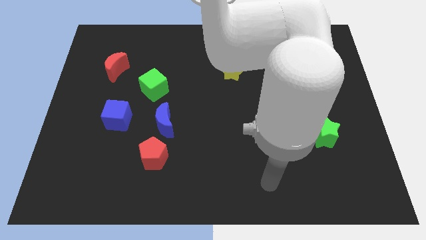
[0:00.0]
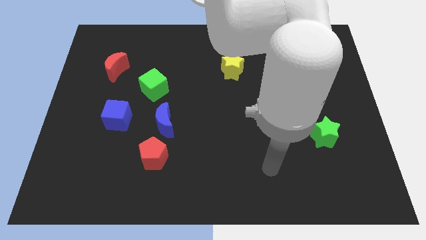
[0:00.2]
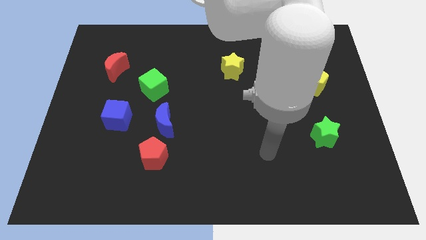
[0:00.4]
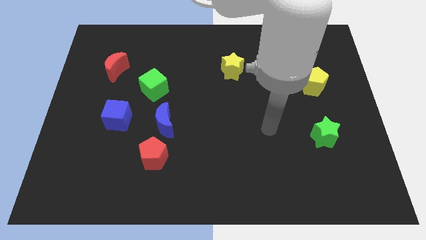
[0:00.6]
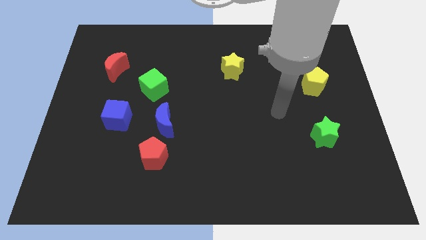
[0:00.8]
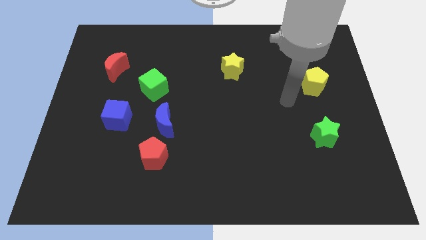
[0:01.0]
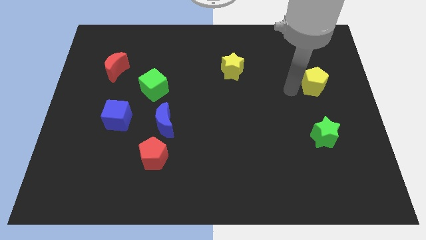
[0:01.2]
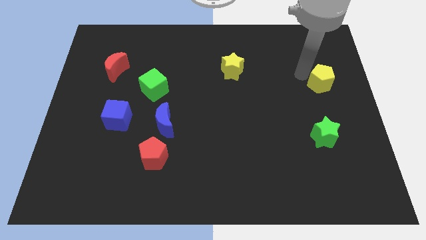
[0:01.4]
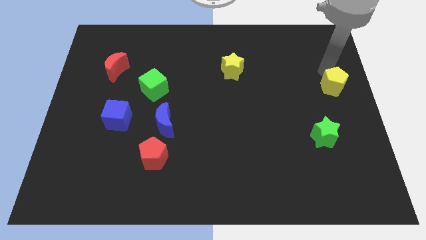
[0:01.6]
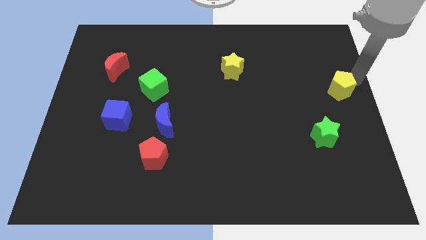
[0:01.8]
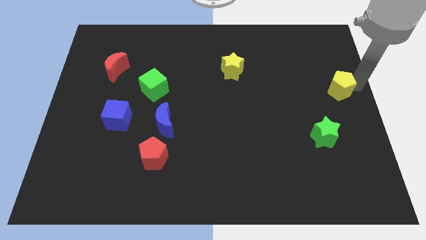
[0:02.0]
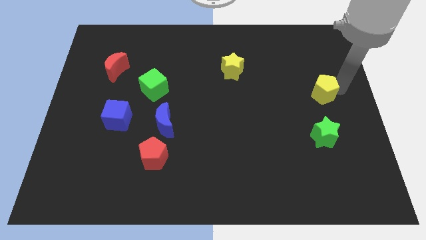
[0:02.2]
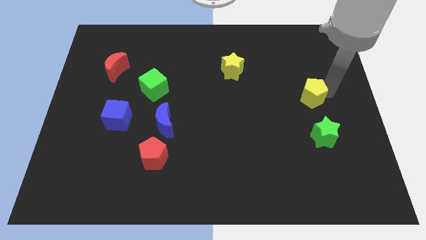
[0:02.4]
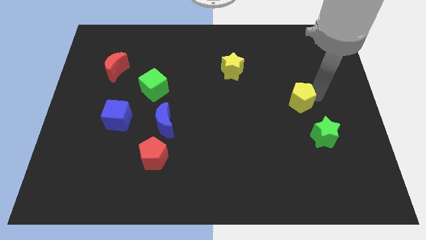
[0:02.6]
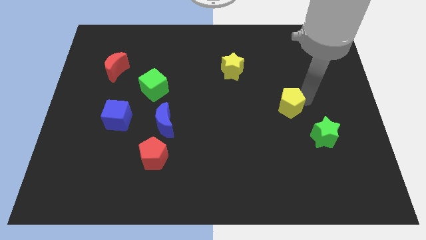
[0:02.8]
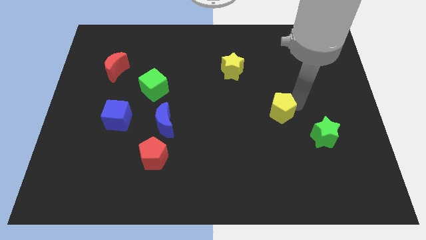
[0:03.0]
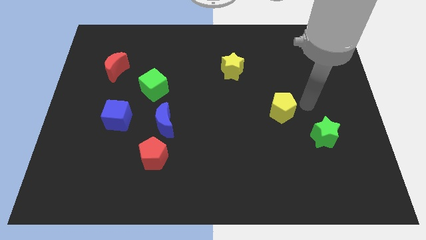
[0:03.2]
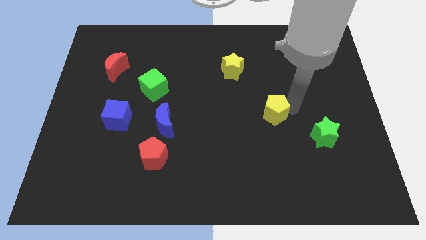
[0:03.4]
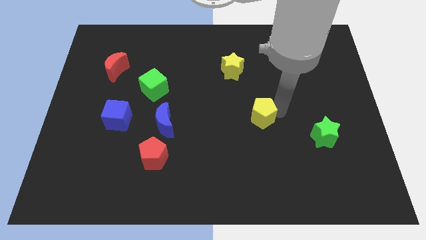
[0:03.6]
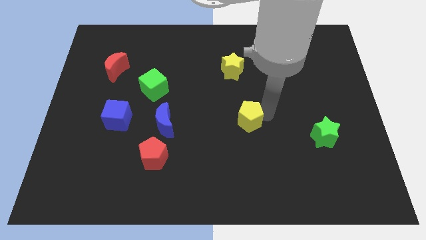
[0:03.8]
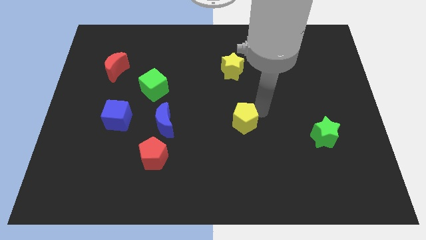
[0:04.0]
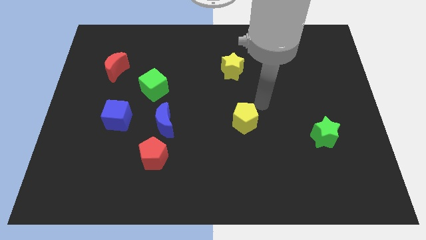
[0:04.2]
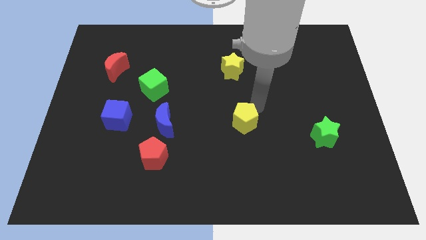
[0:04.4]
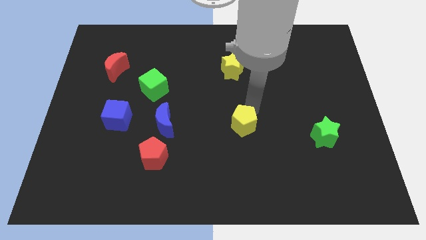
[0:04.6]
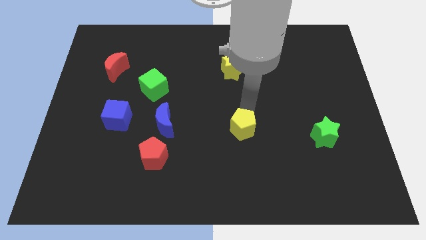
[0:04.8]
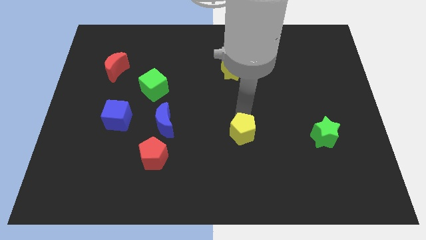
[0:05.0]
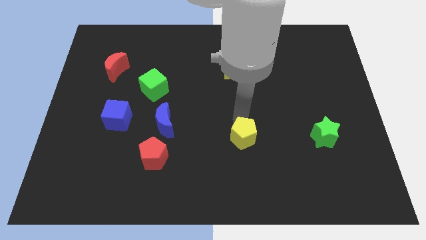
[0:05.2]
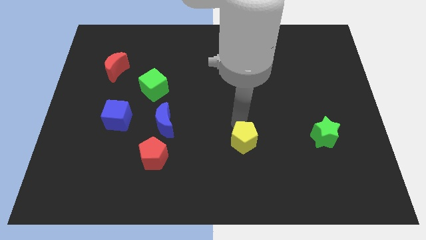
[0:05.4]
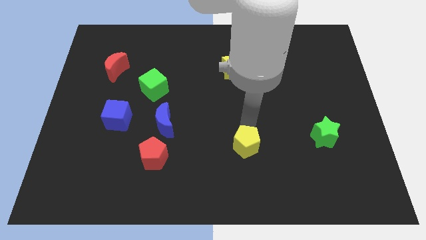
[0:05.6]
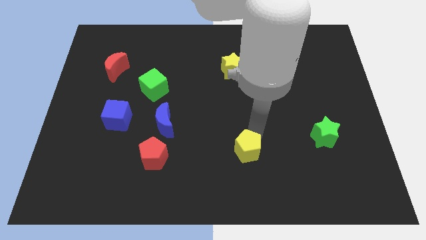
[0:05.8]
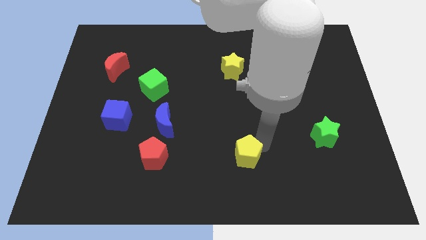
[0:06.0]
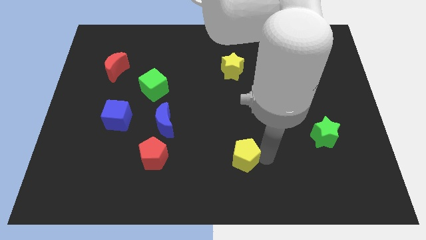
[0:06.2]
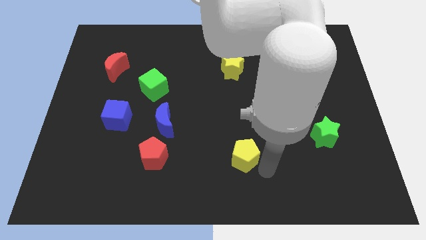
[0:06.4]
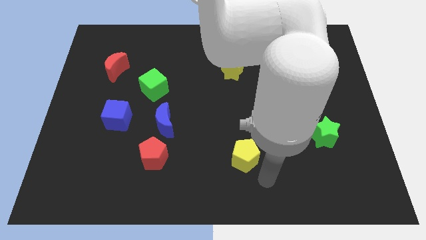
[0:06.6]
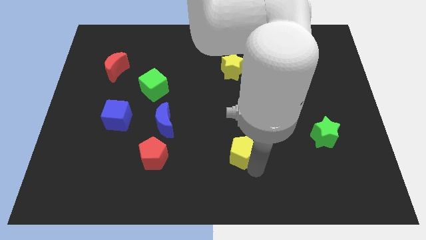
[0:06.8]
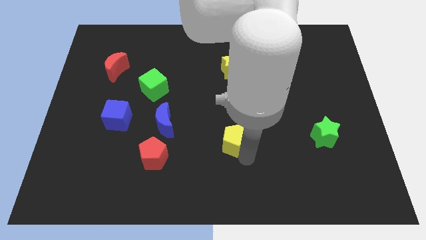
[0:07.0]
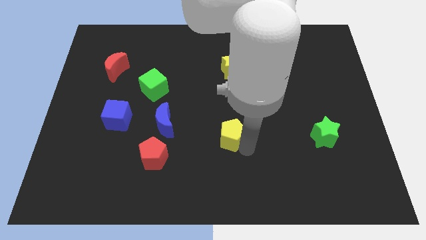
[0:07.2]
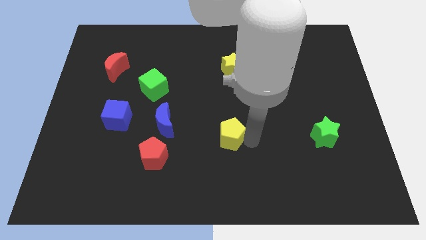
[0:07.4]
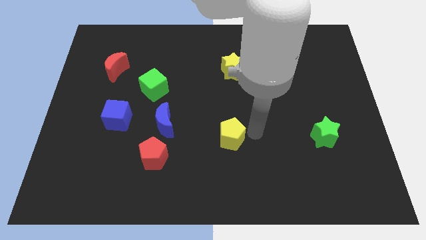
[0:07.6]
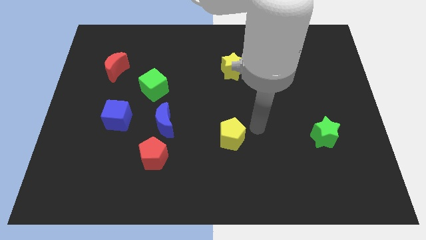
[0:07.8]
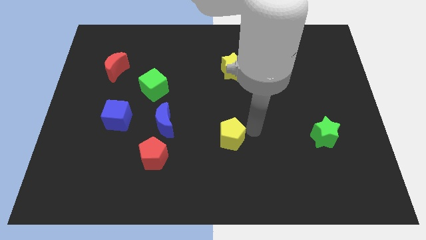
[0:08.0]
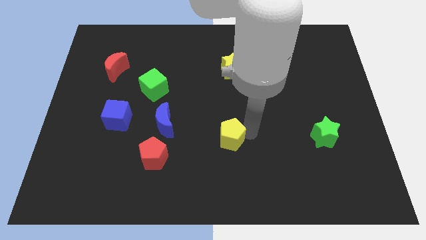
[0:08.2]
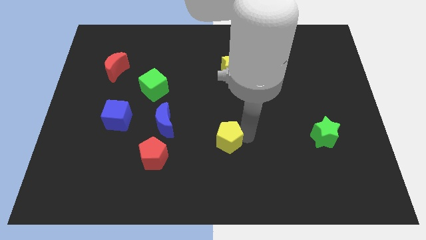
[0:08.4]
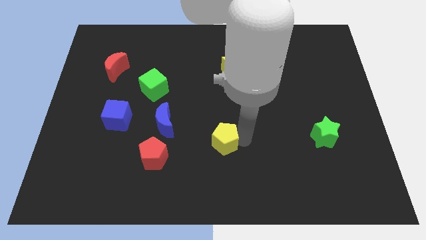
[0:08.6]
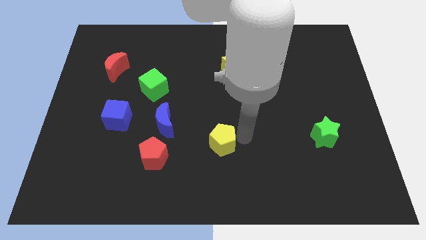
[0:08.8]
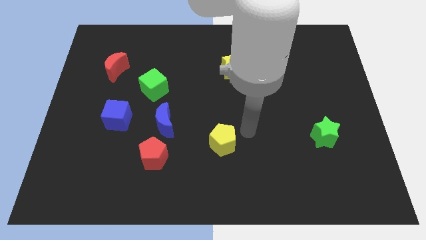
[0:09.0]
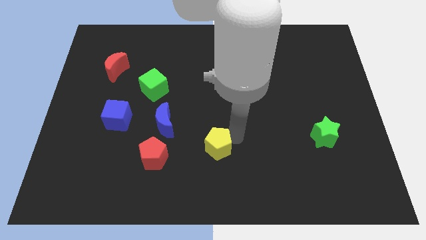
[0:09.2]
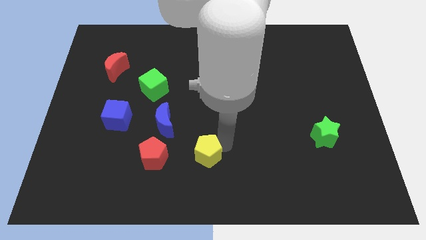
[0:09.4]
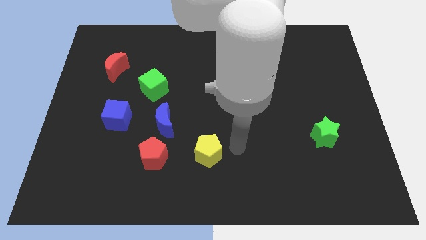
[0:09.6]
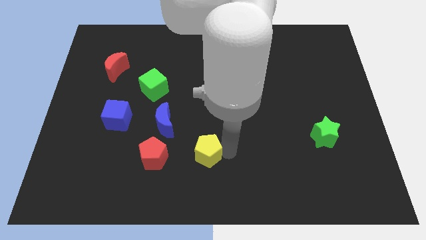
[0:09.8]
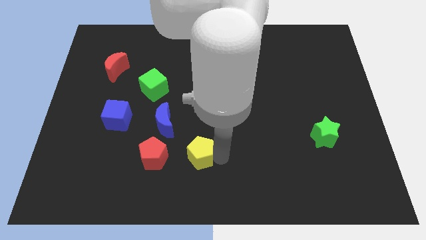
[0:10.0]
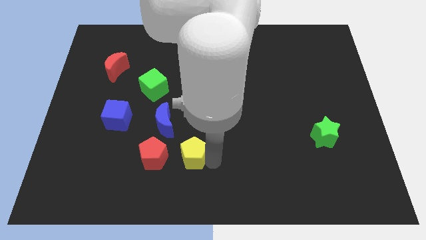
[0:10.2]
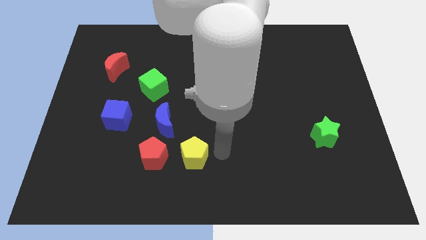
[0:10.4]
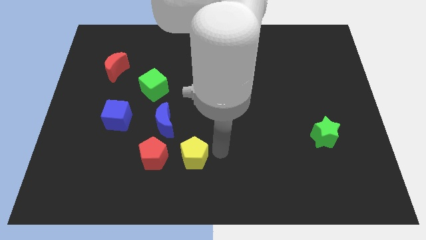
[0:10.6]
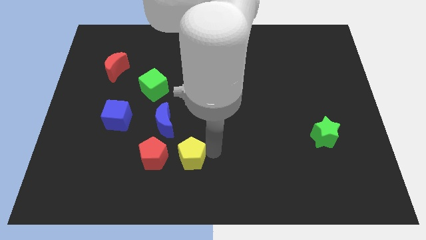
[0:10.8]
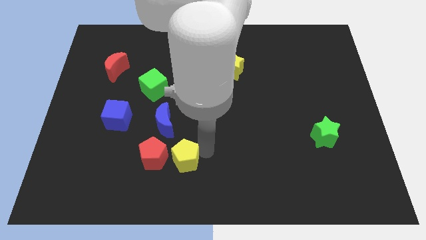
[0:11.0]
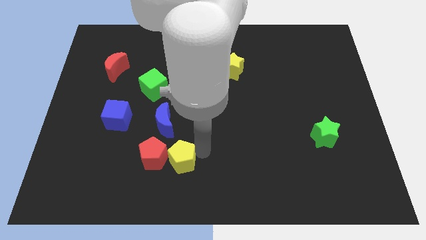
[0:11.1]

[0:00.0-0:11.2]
push the yellow pentagon to the bottom side of the blue moon

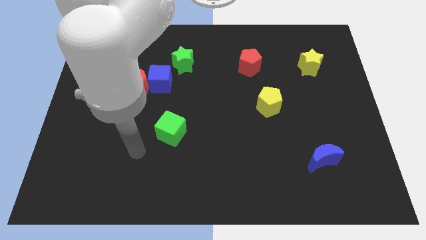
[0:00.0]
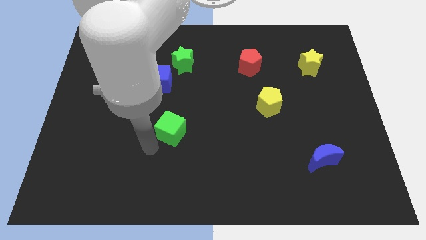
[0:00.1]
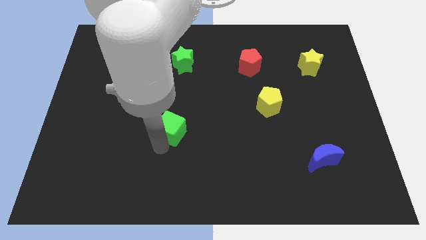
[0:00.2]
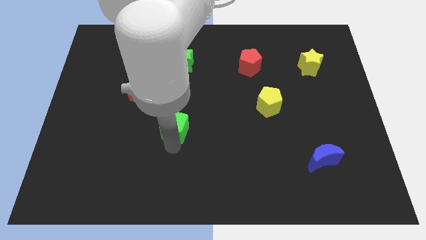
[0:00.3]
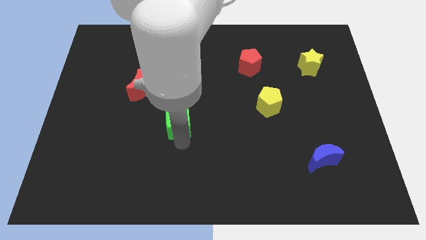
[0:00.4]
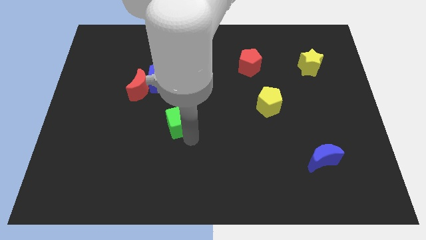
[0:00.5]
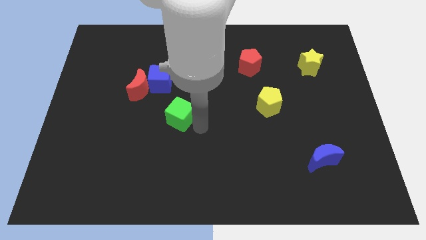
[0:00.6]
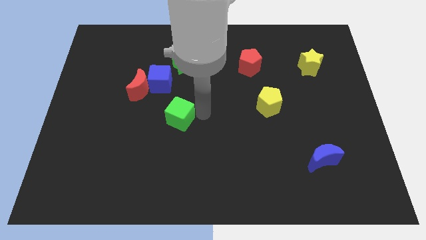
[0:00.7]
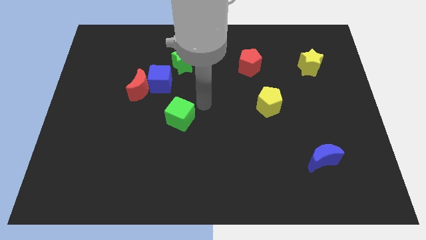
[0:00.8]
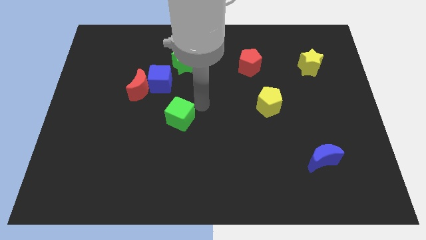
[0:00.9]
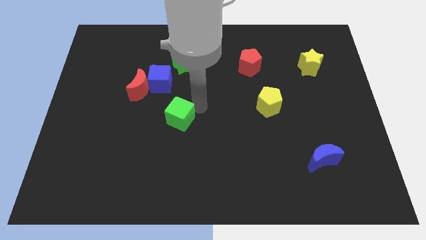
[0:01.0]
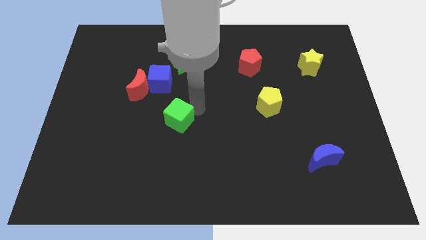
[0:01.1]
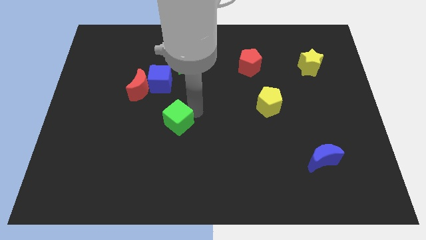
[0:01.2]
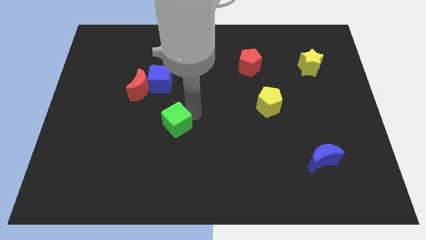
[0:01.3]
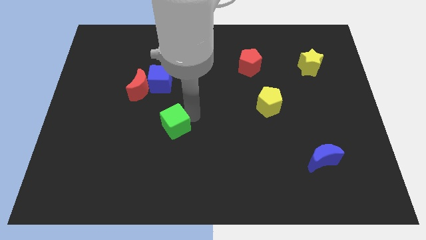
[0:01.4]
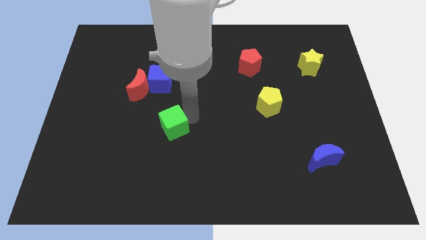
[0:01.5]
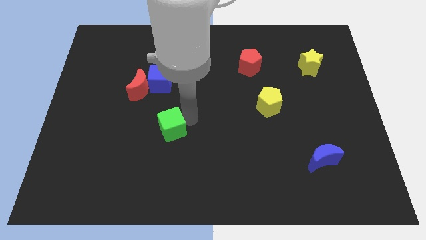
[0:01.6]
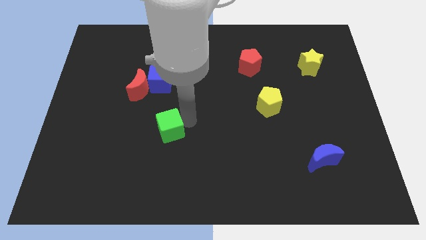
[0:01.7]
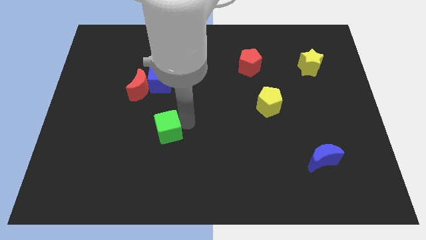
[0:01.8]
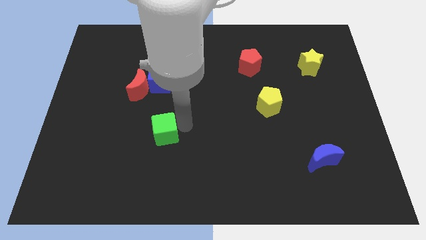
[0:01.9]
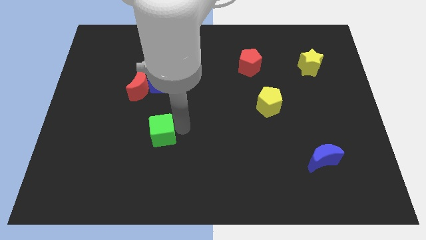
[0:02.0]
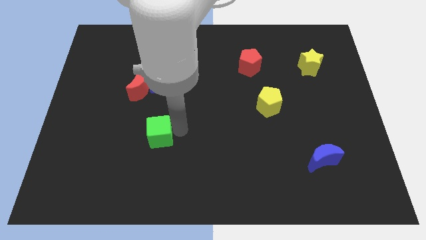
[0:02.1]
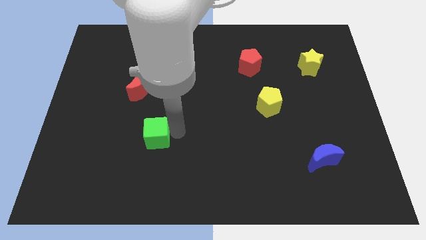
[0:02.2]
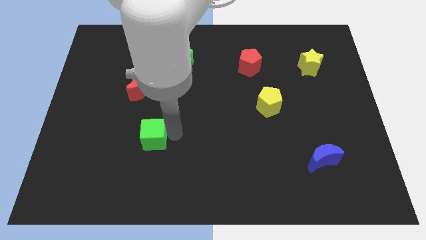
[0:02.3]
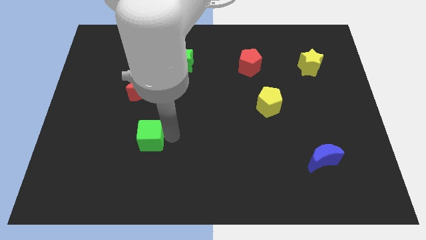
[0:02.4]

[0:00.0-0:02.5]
push the green cube below the red moon
